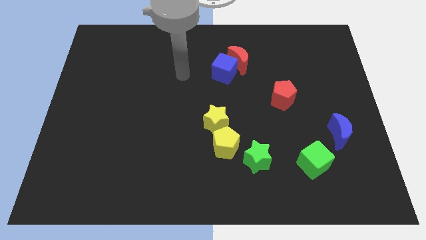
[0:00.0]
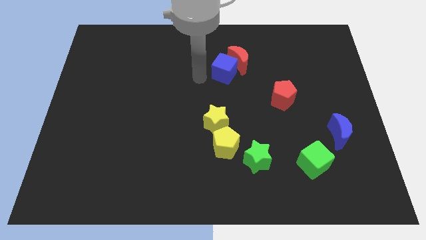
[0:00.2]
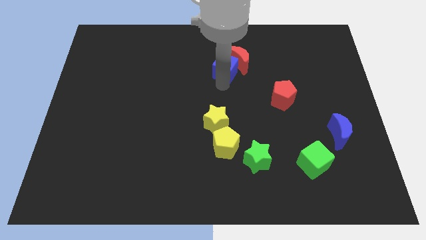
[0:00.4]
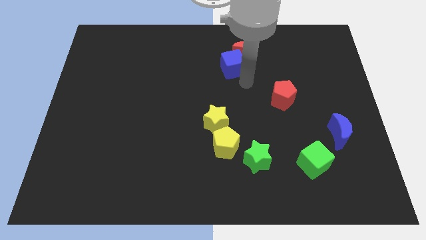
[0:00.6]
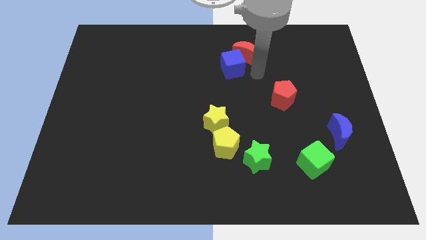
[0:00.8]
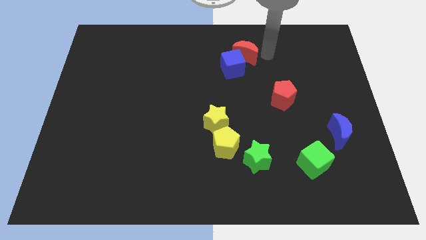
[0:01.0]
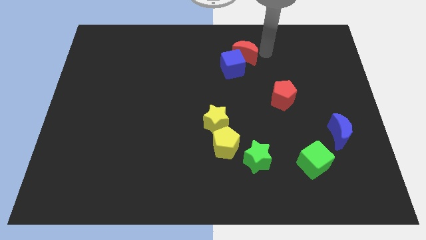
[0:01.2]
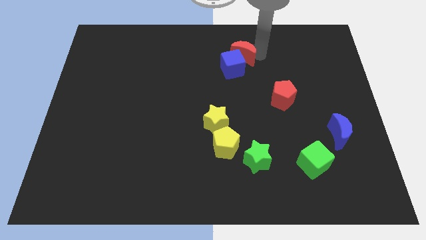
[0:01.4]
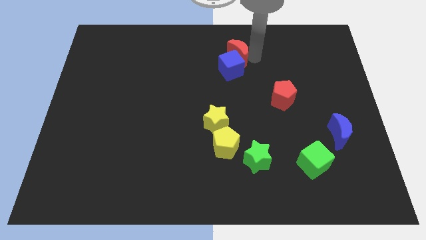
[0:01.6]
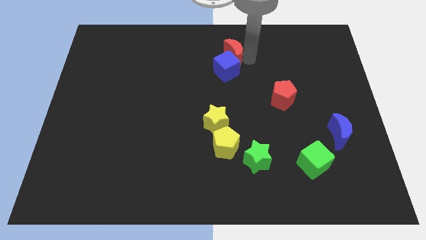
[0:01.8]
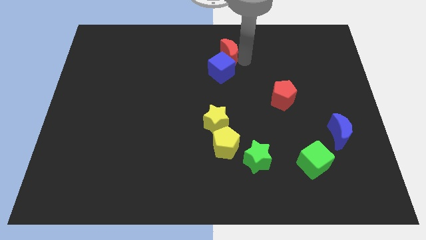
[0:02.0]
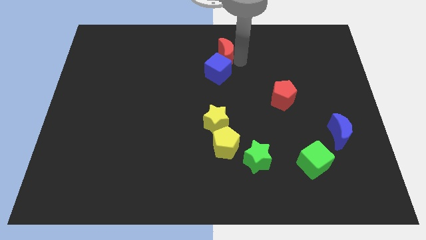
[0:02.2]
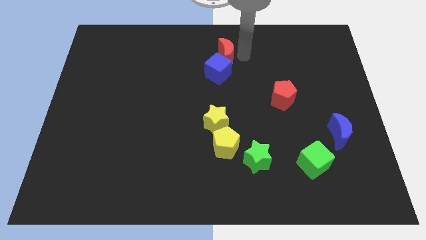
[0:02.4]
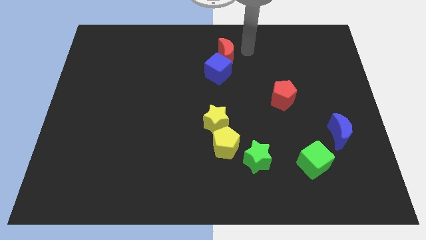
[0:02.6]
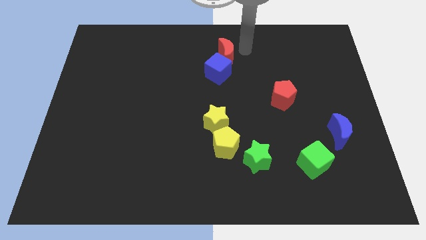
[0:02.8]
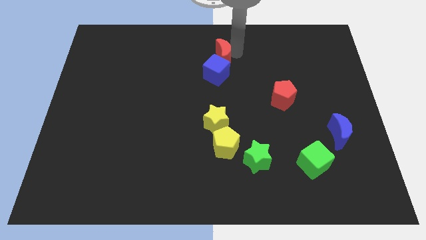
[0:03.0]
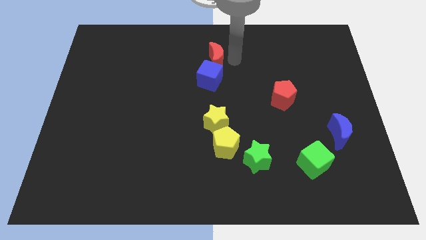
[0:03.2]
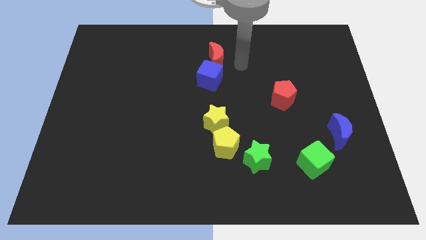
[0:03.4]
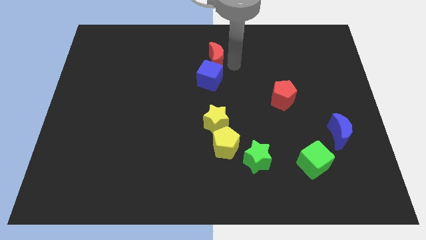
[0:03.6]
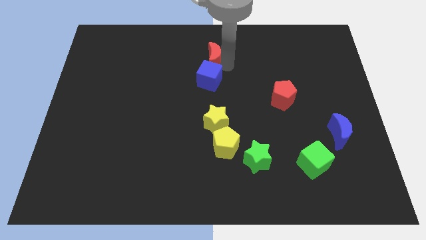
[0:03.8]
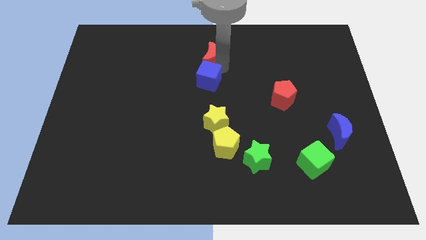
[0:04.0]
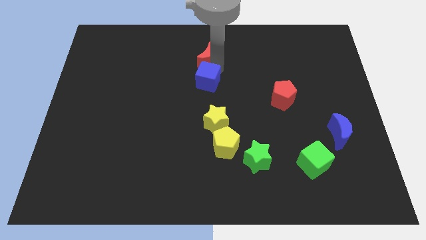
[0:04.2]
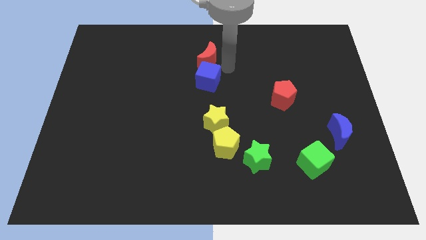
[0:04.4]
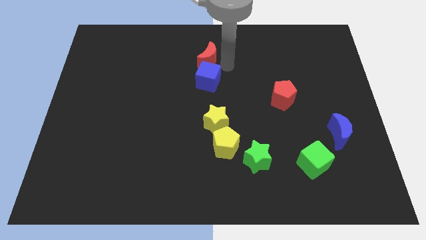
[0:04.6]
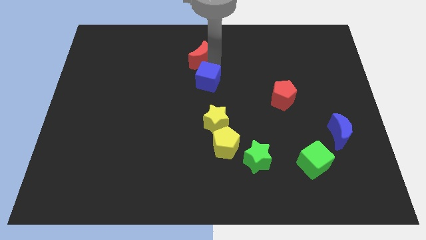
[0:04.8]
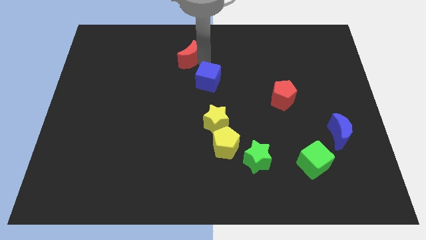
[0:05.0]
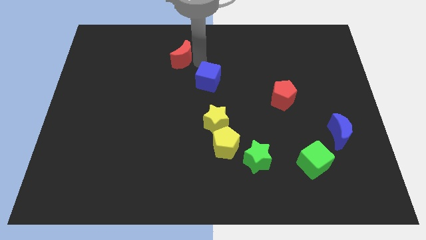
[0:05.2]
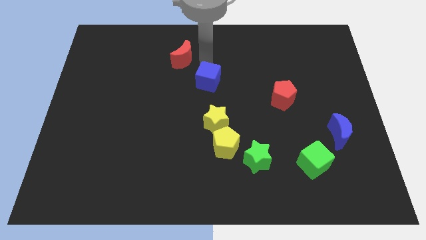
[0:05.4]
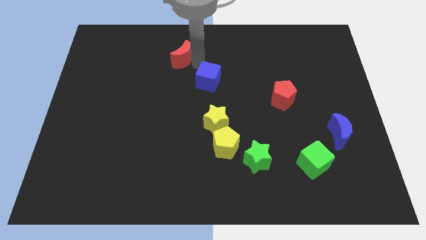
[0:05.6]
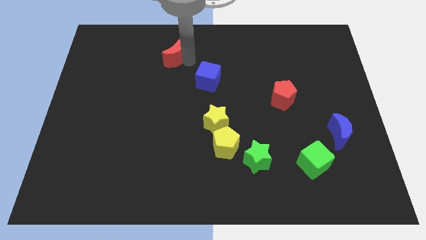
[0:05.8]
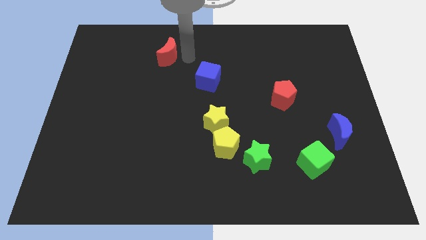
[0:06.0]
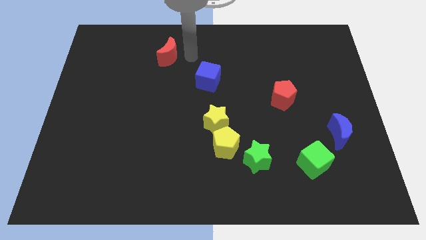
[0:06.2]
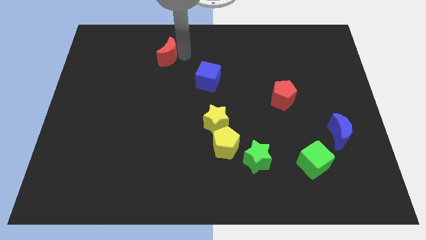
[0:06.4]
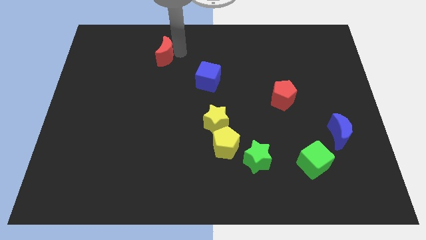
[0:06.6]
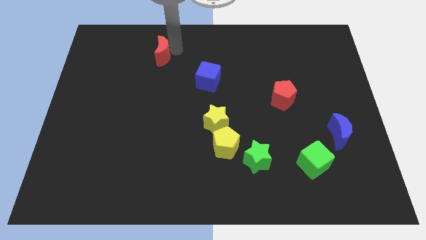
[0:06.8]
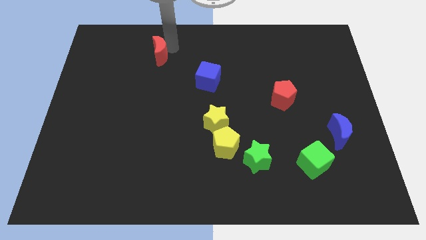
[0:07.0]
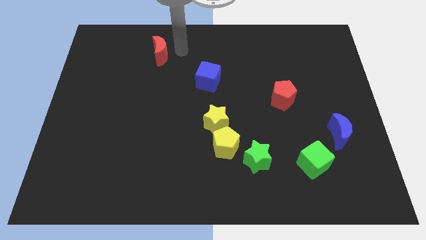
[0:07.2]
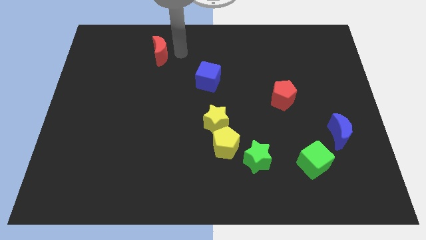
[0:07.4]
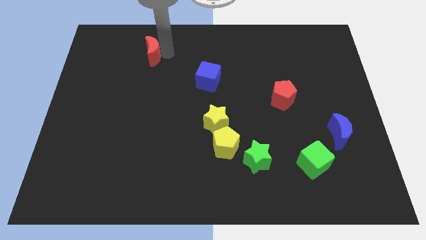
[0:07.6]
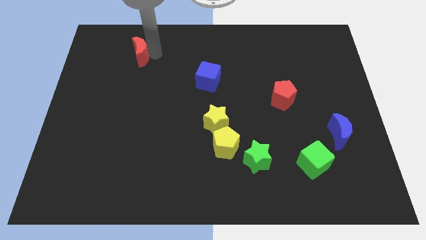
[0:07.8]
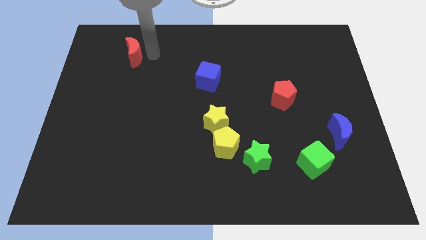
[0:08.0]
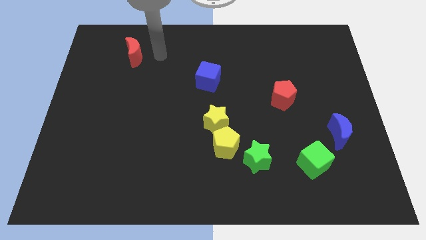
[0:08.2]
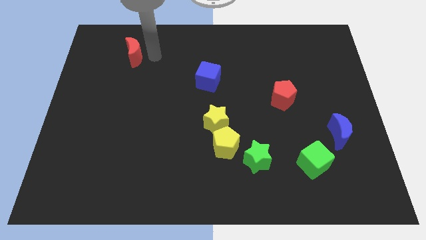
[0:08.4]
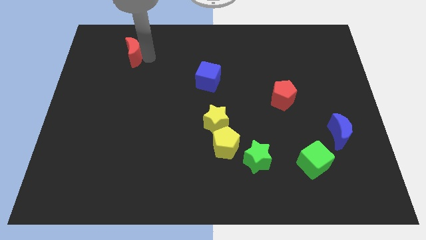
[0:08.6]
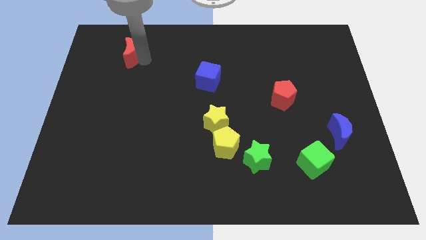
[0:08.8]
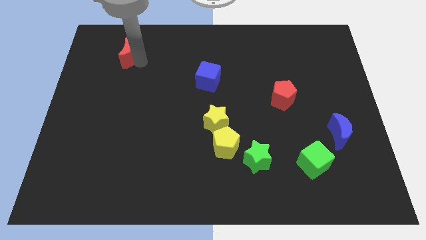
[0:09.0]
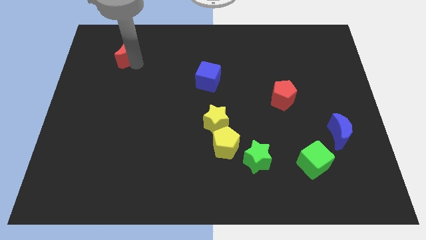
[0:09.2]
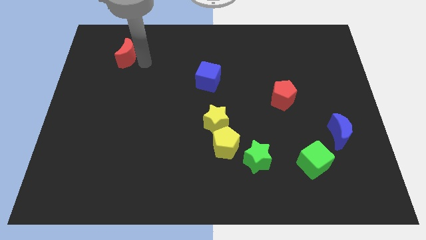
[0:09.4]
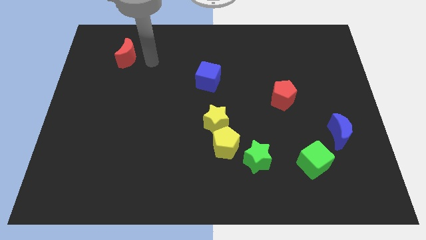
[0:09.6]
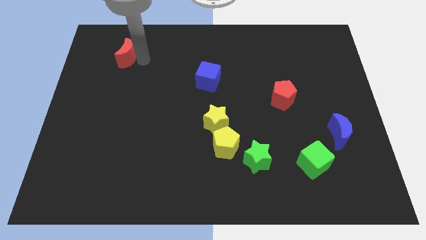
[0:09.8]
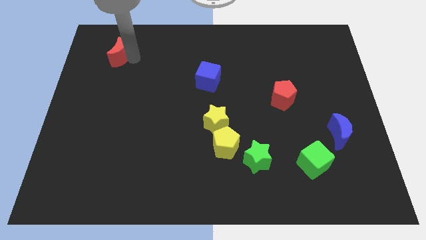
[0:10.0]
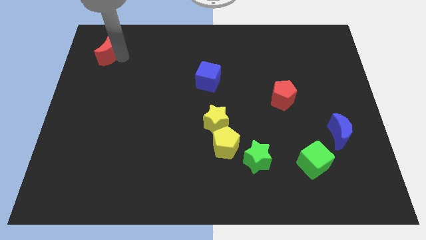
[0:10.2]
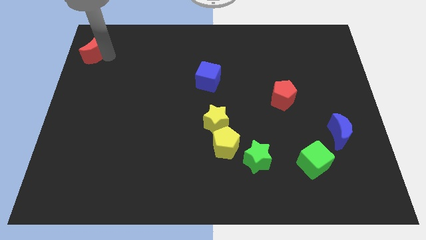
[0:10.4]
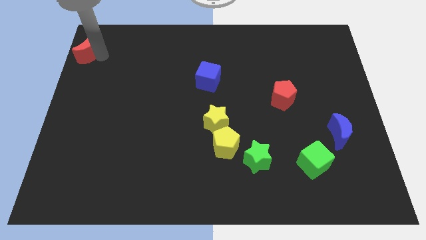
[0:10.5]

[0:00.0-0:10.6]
push the red moon to the upper left corner
